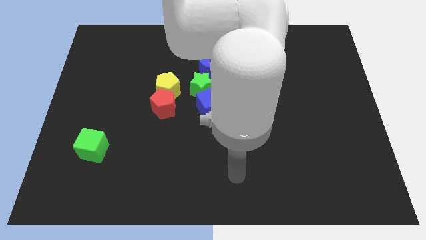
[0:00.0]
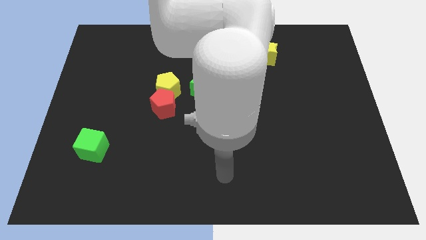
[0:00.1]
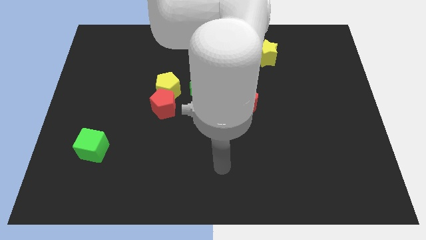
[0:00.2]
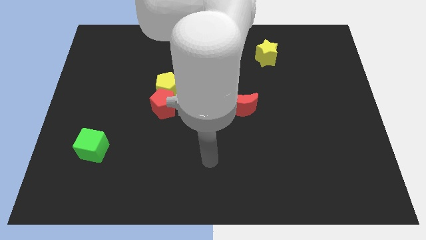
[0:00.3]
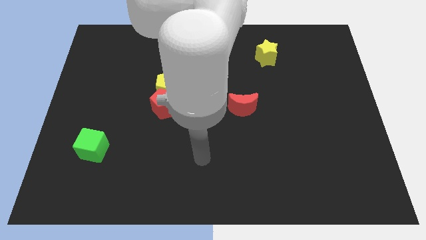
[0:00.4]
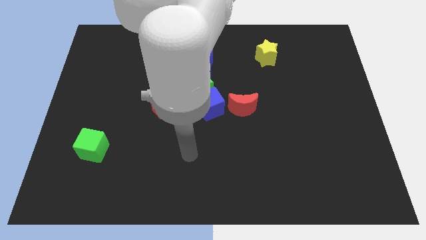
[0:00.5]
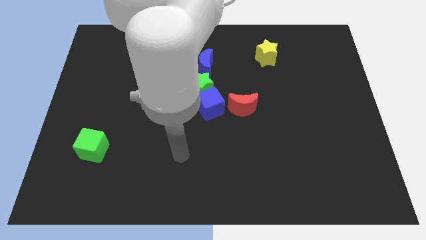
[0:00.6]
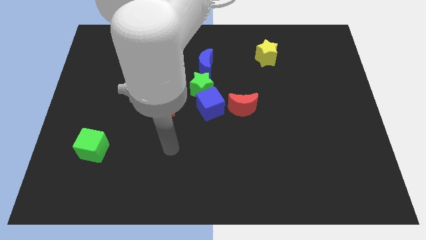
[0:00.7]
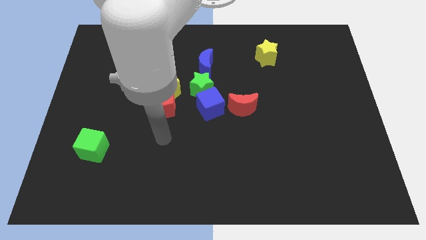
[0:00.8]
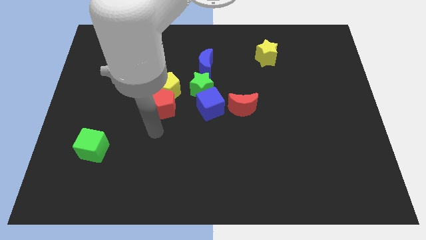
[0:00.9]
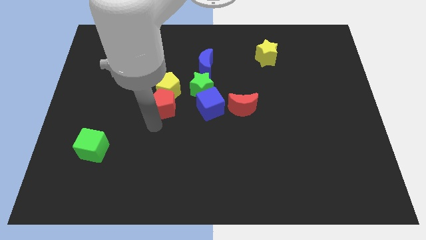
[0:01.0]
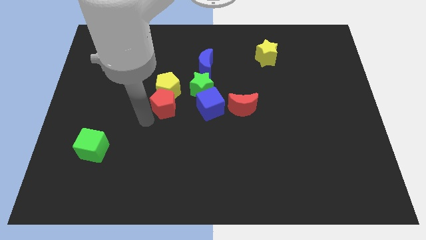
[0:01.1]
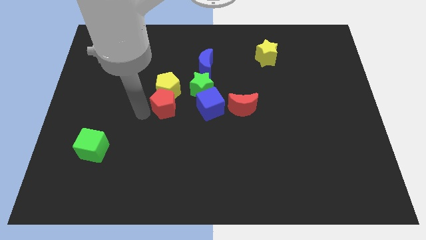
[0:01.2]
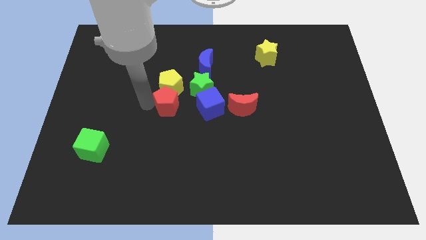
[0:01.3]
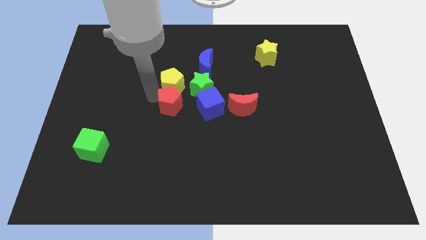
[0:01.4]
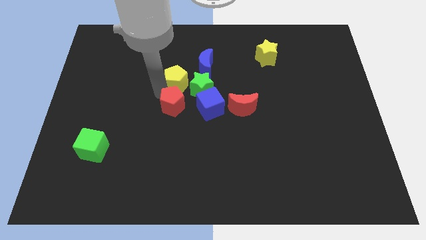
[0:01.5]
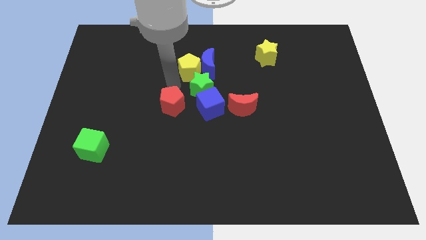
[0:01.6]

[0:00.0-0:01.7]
separate the red pentagon from the yellow pentagon

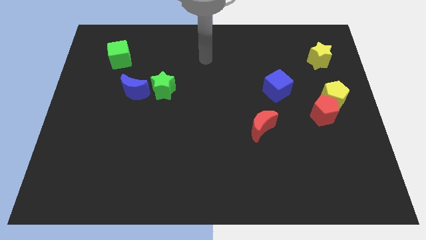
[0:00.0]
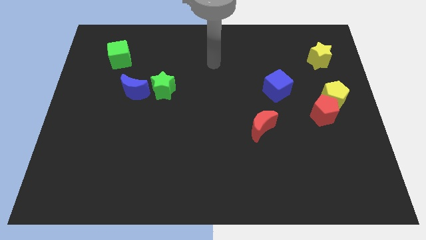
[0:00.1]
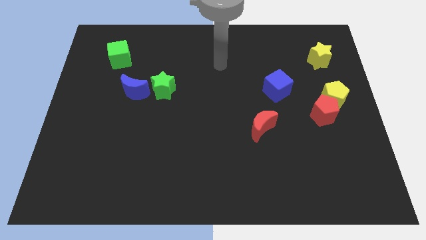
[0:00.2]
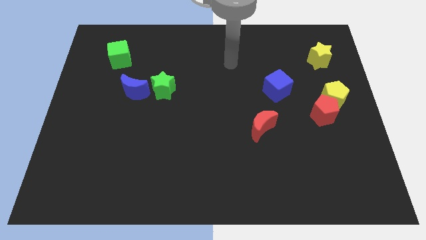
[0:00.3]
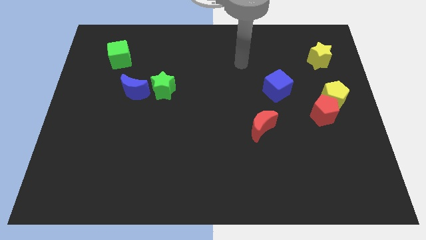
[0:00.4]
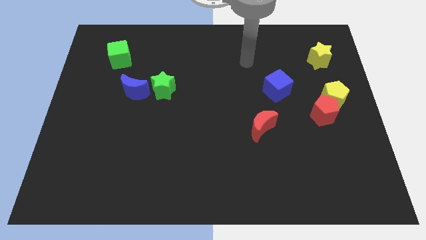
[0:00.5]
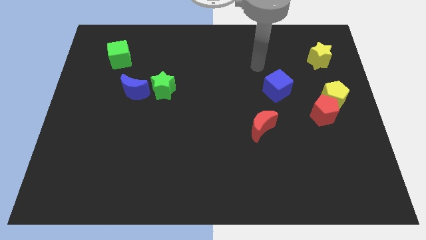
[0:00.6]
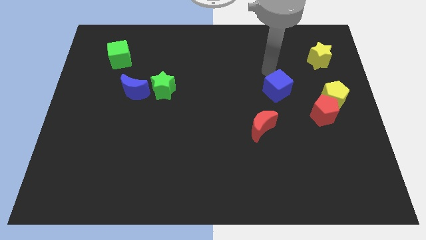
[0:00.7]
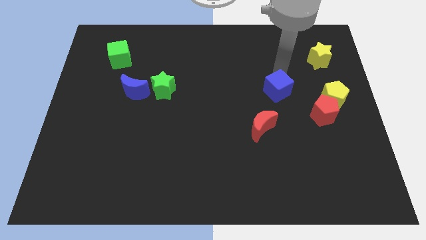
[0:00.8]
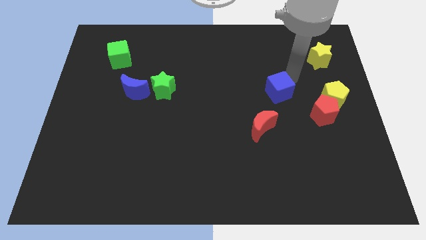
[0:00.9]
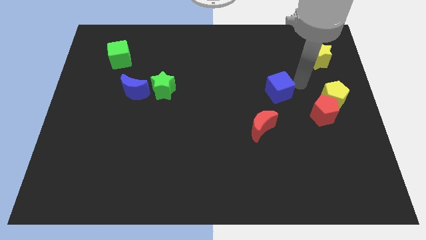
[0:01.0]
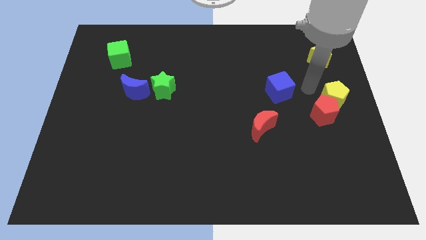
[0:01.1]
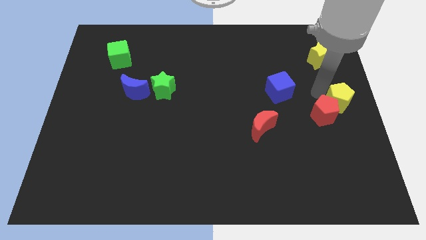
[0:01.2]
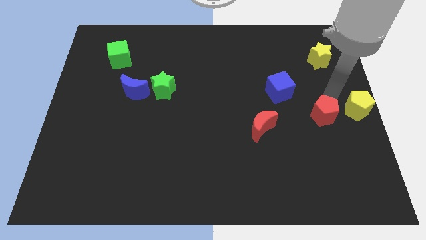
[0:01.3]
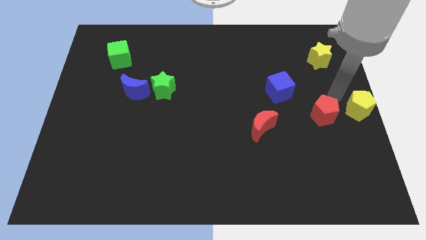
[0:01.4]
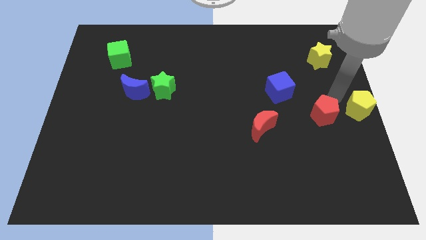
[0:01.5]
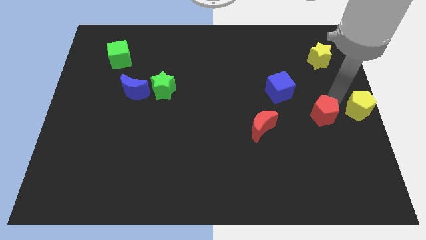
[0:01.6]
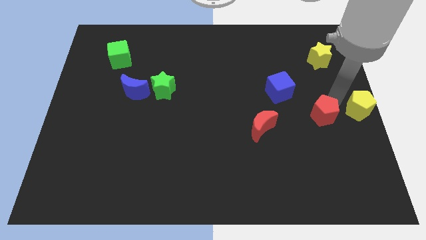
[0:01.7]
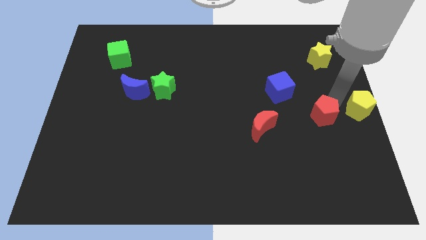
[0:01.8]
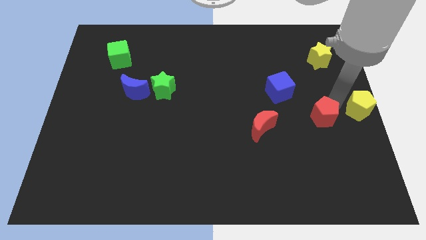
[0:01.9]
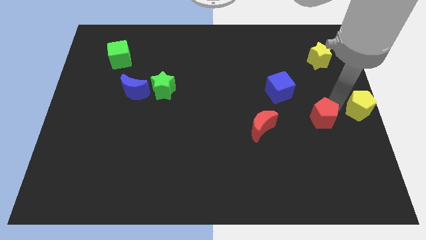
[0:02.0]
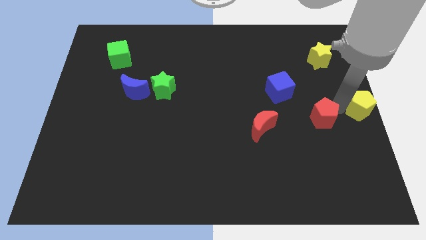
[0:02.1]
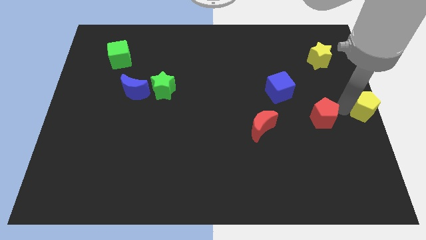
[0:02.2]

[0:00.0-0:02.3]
move the red pentagon away from the yellow pentagon

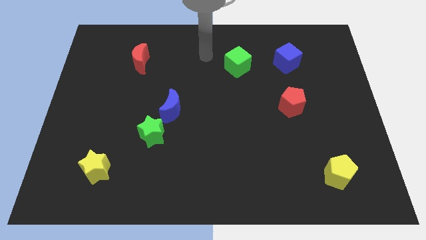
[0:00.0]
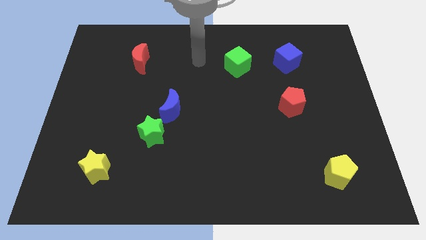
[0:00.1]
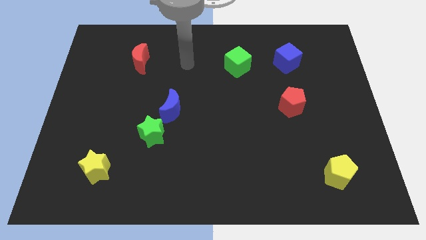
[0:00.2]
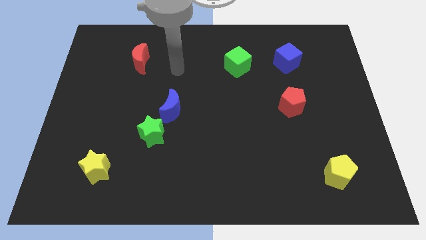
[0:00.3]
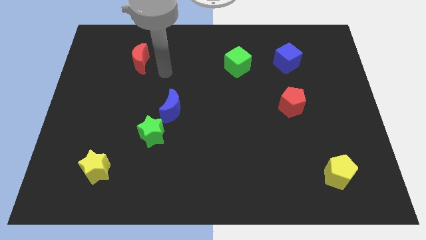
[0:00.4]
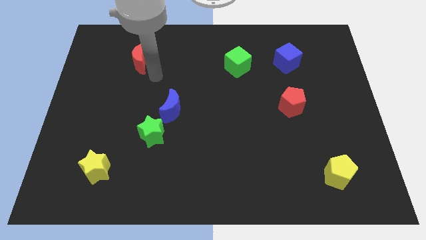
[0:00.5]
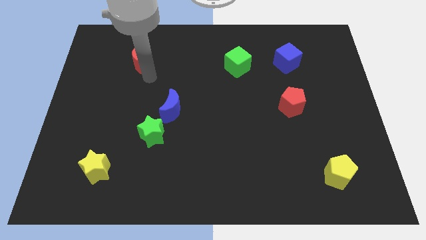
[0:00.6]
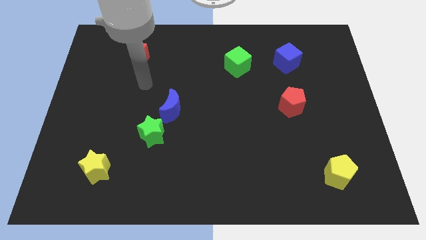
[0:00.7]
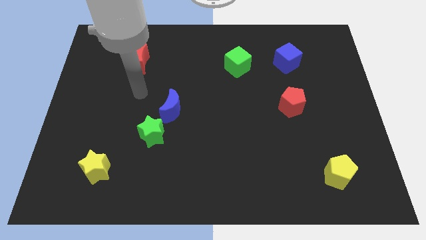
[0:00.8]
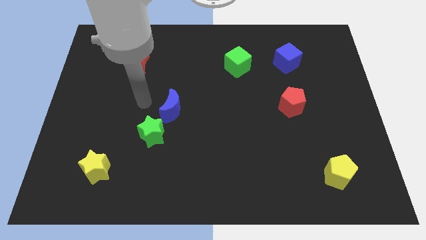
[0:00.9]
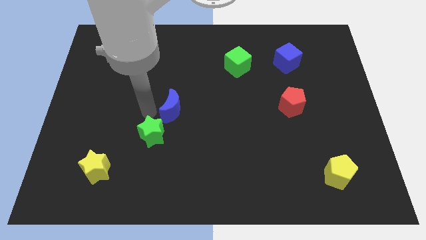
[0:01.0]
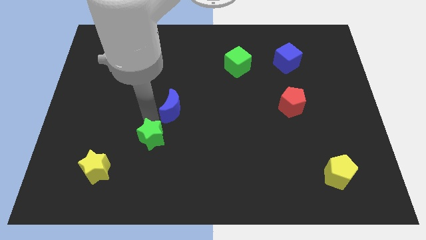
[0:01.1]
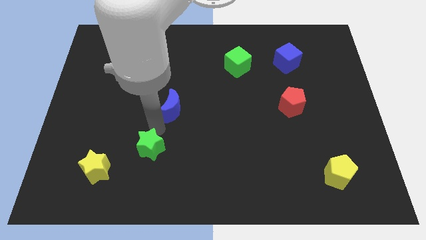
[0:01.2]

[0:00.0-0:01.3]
move the blue moon away from the green star

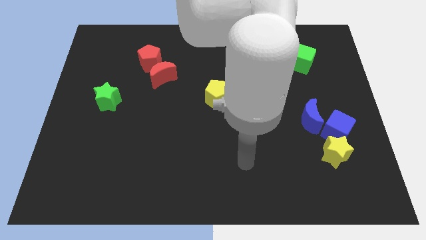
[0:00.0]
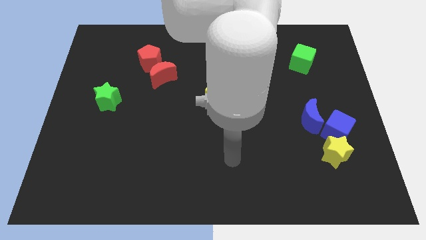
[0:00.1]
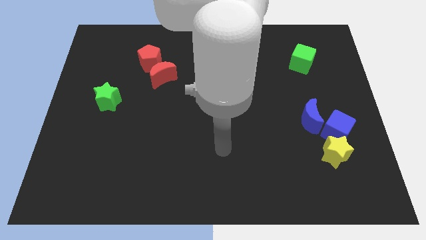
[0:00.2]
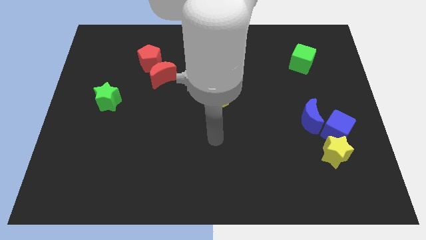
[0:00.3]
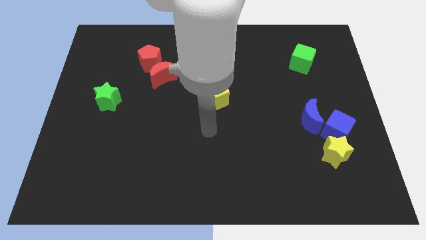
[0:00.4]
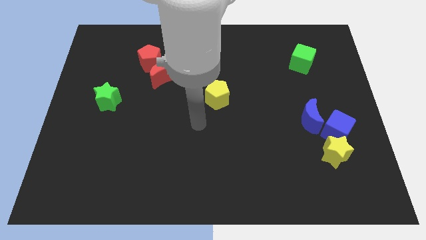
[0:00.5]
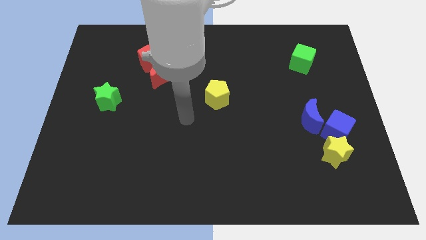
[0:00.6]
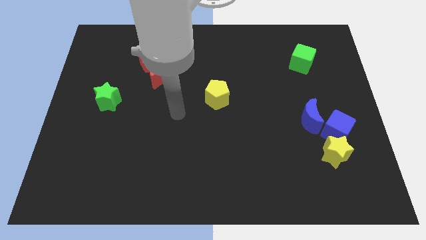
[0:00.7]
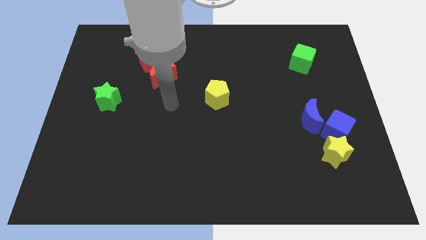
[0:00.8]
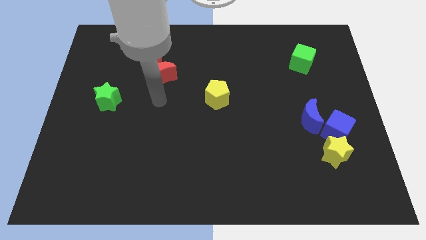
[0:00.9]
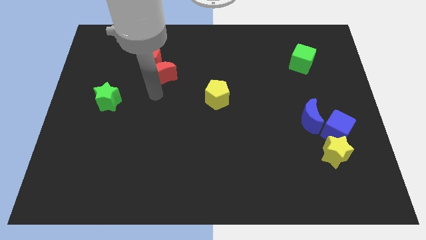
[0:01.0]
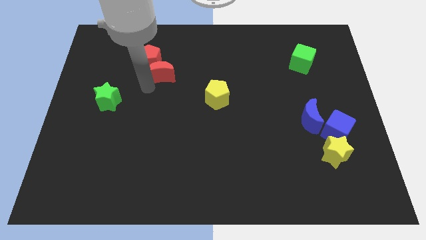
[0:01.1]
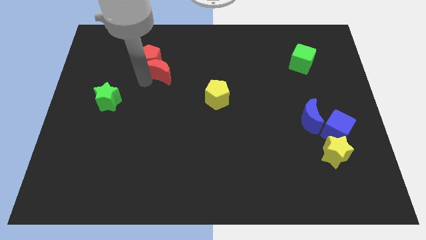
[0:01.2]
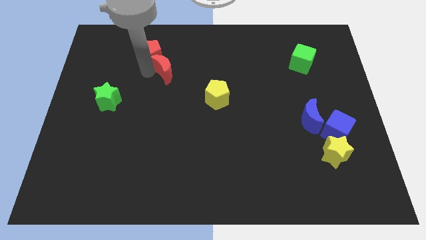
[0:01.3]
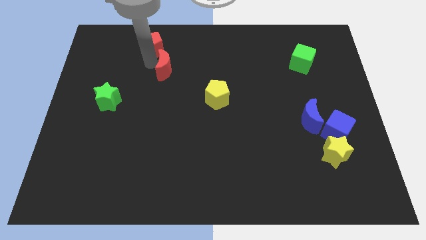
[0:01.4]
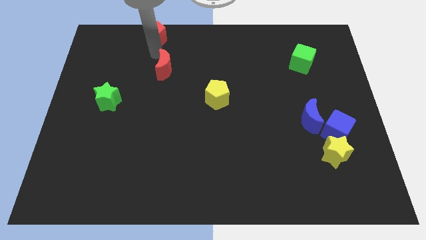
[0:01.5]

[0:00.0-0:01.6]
move the red moon away from the red pentagon

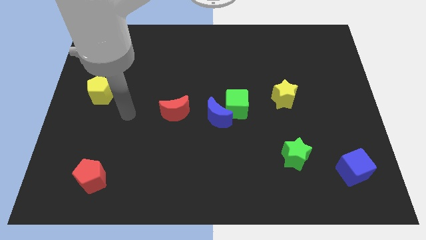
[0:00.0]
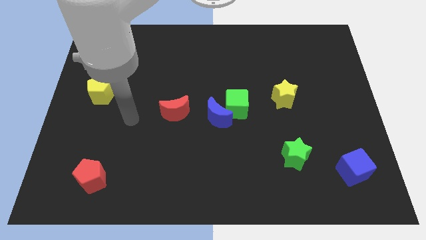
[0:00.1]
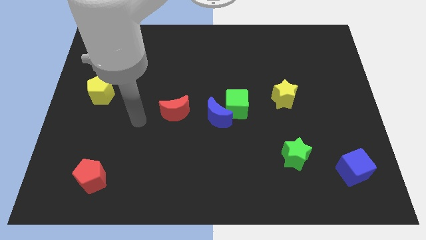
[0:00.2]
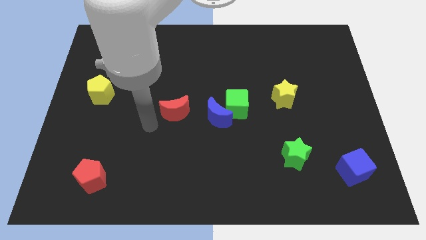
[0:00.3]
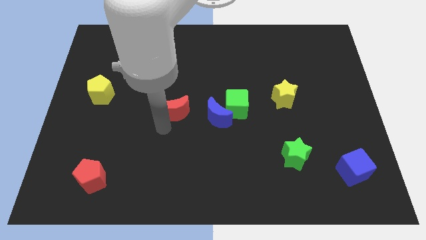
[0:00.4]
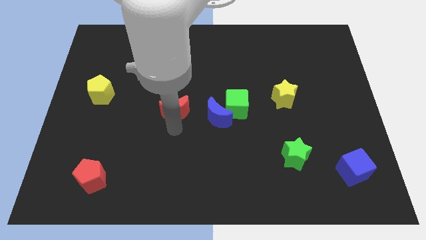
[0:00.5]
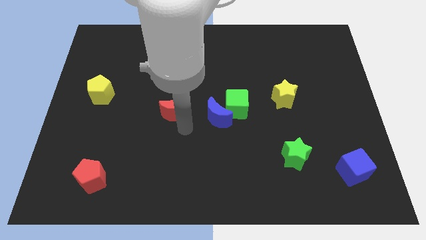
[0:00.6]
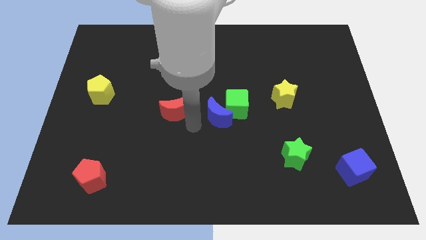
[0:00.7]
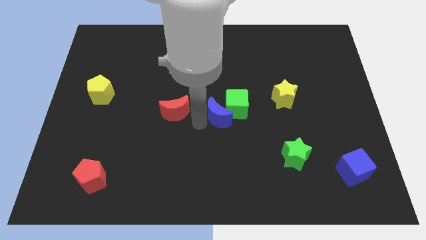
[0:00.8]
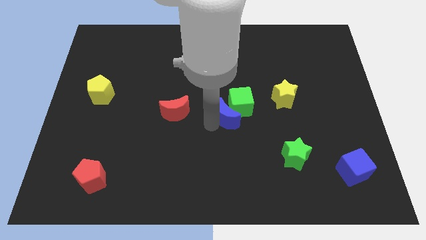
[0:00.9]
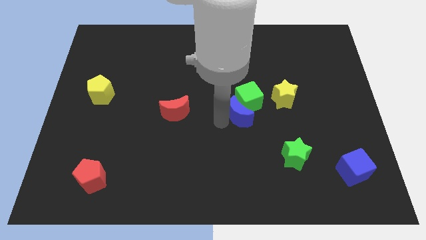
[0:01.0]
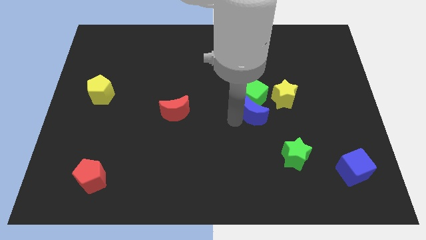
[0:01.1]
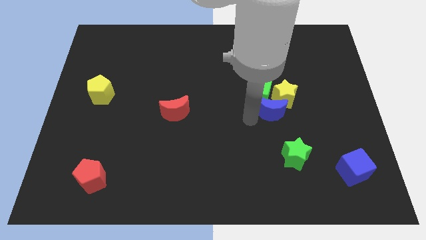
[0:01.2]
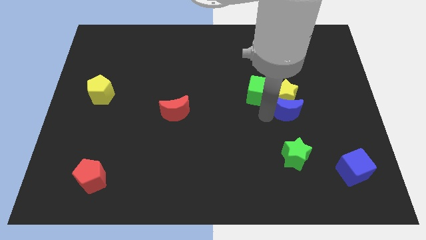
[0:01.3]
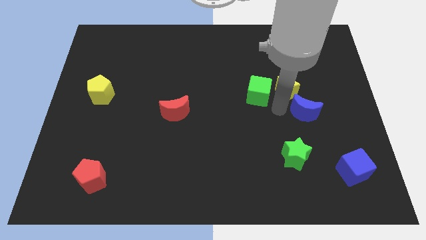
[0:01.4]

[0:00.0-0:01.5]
separate the green cube from the blue moon

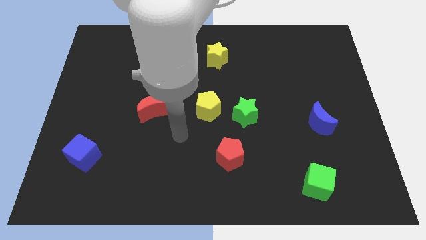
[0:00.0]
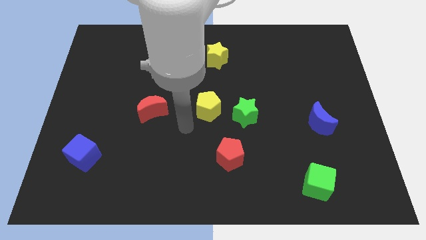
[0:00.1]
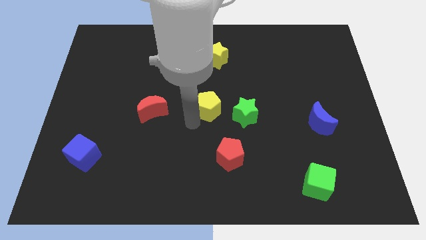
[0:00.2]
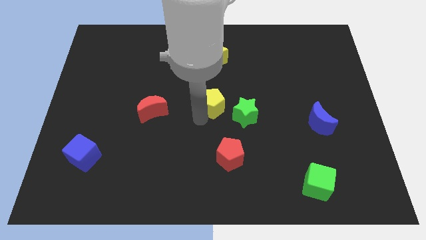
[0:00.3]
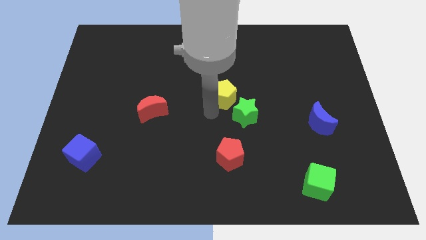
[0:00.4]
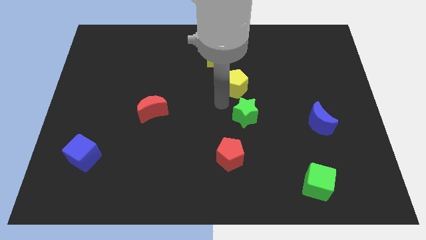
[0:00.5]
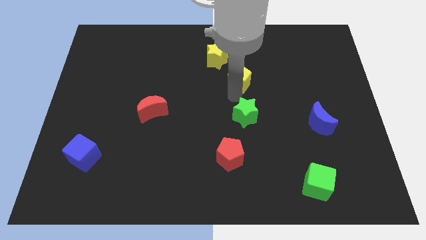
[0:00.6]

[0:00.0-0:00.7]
pull the green star apart from the yellow pentagon

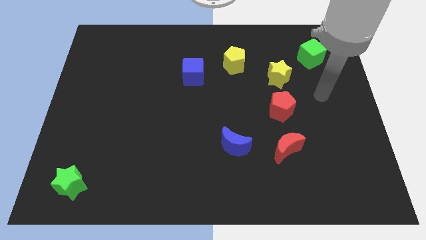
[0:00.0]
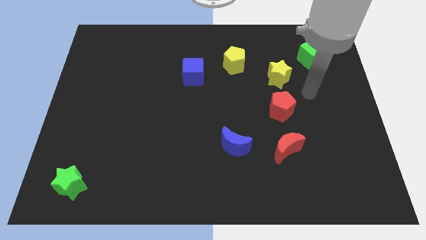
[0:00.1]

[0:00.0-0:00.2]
separate the red pentagon from the yellow star
